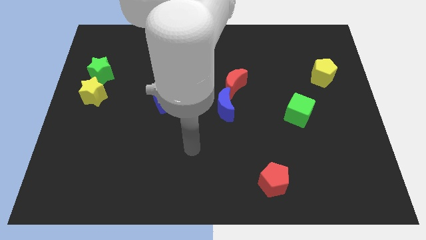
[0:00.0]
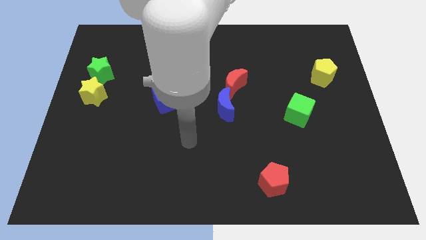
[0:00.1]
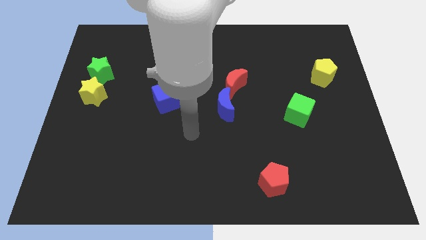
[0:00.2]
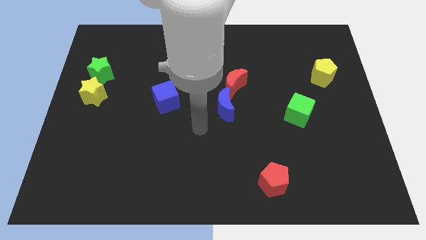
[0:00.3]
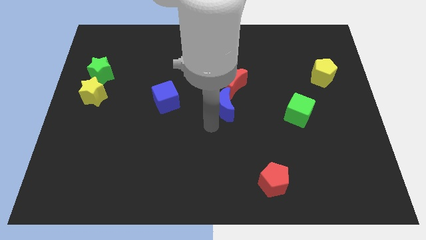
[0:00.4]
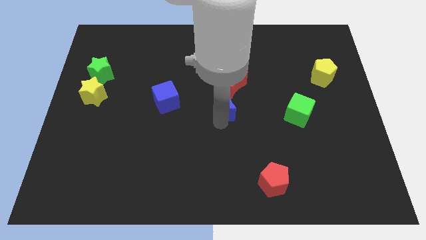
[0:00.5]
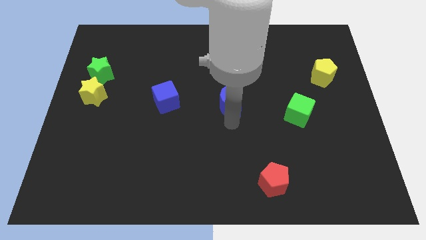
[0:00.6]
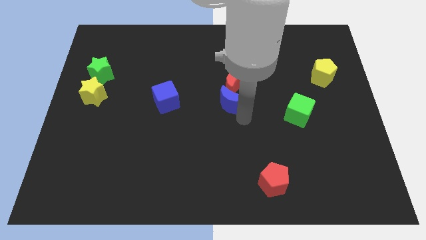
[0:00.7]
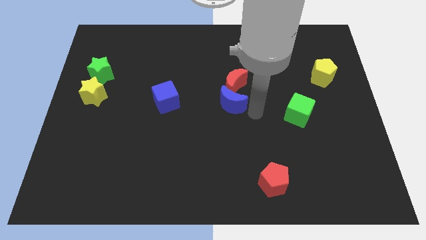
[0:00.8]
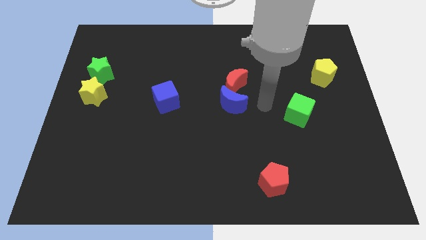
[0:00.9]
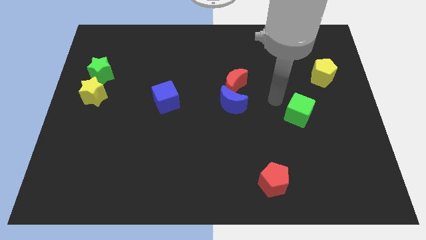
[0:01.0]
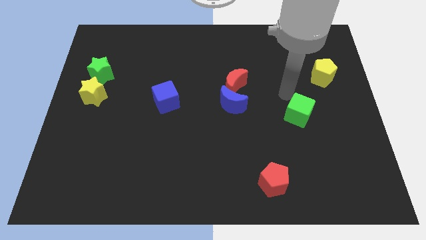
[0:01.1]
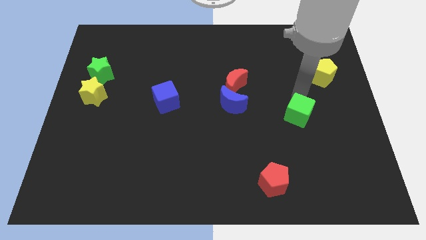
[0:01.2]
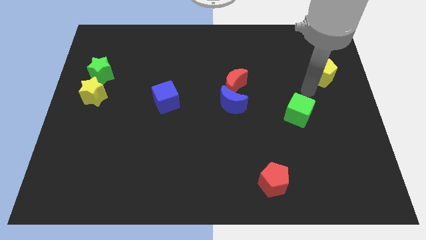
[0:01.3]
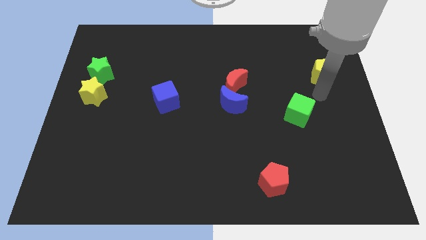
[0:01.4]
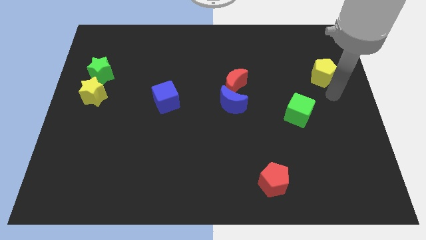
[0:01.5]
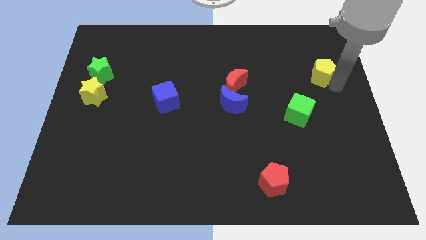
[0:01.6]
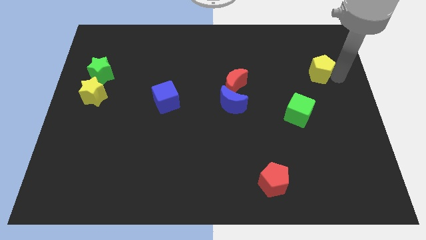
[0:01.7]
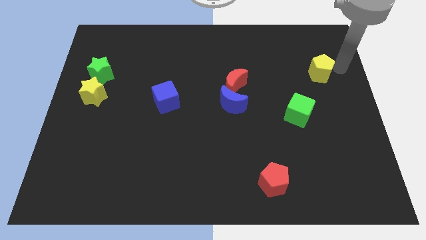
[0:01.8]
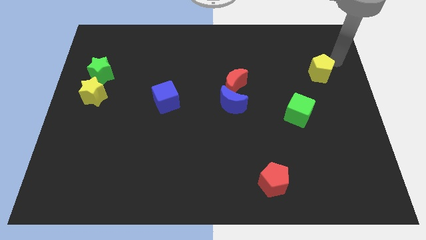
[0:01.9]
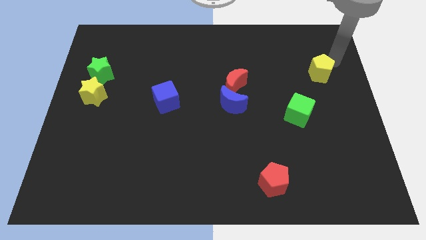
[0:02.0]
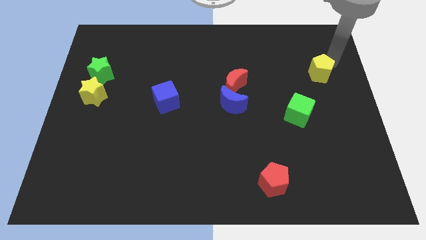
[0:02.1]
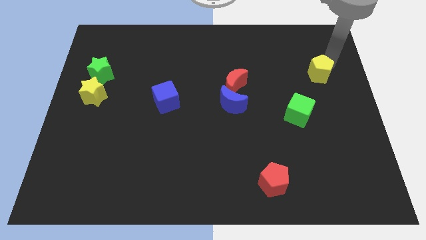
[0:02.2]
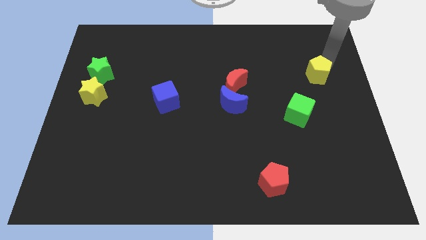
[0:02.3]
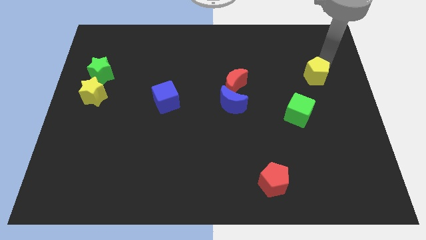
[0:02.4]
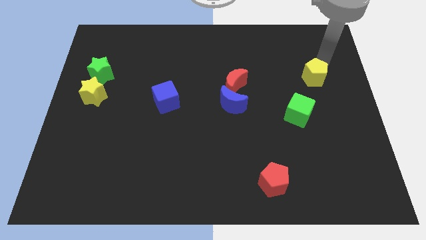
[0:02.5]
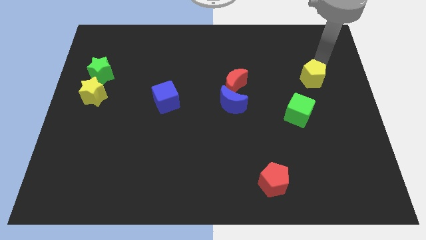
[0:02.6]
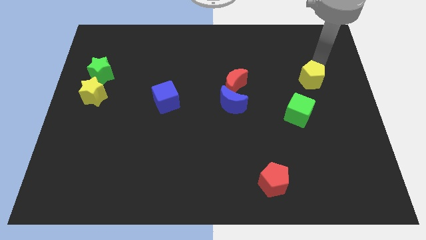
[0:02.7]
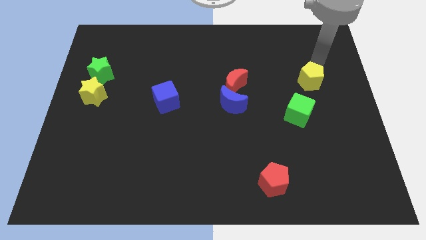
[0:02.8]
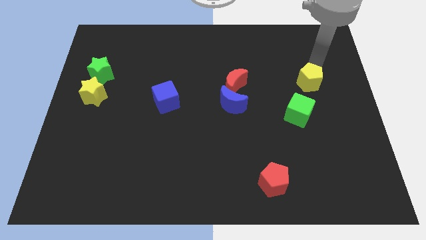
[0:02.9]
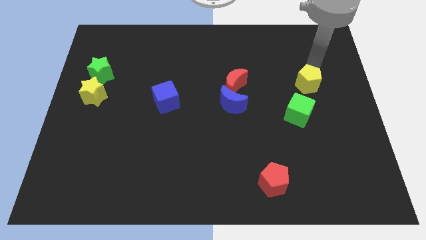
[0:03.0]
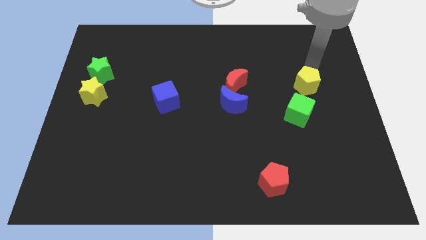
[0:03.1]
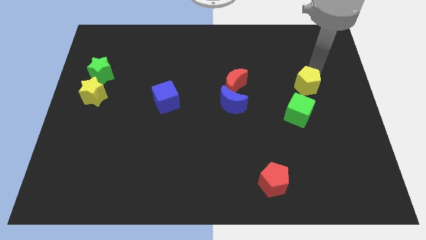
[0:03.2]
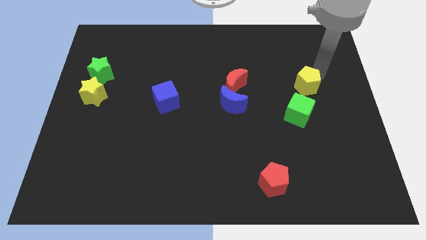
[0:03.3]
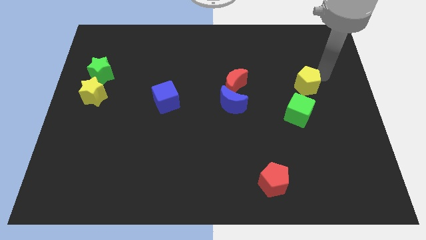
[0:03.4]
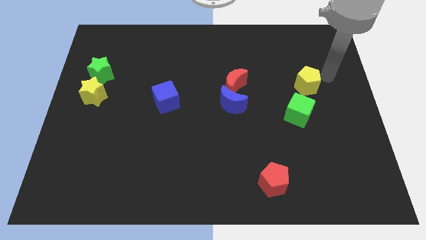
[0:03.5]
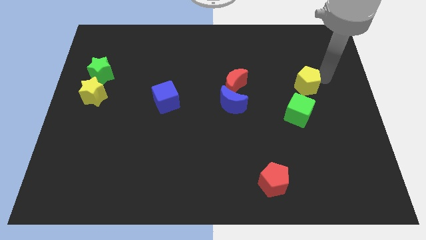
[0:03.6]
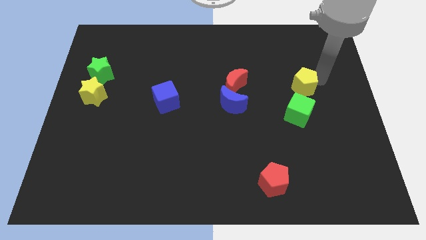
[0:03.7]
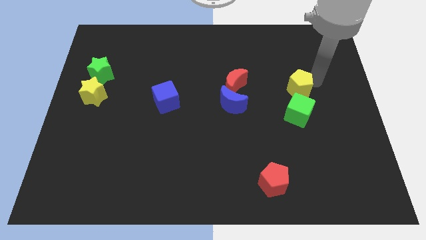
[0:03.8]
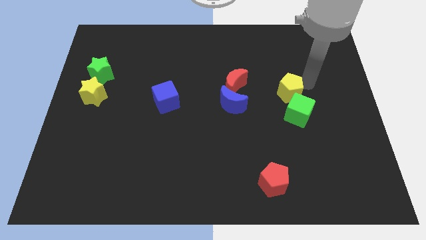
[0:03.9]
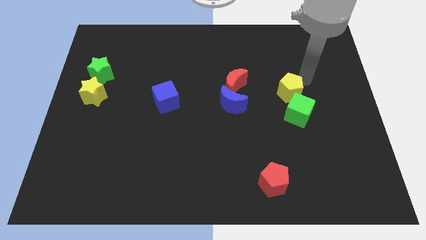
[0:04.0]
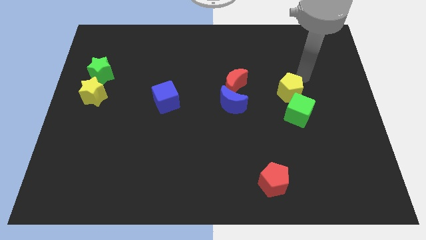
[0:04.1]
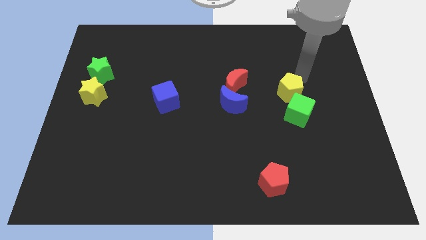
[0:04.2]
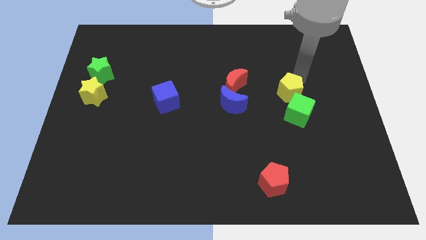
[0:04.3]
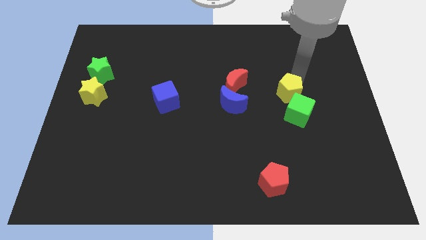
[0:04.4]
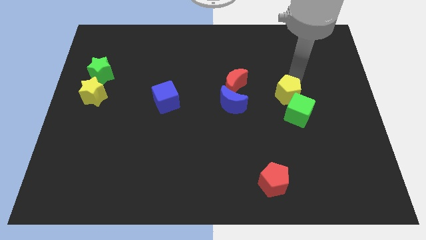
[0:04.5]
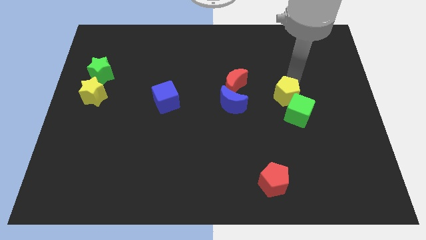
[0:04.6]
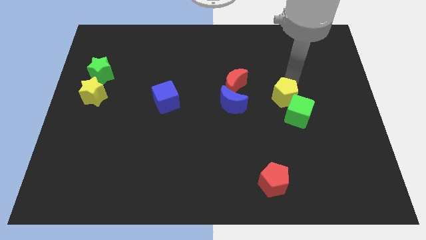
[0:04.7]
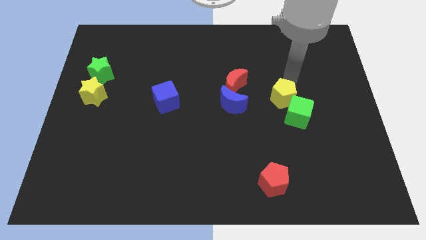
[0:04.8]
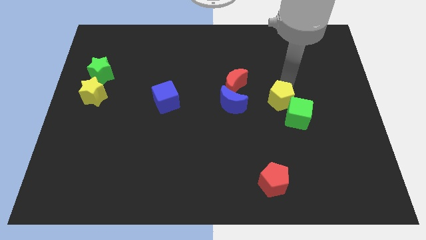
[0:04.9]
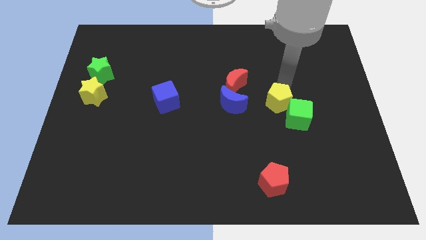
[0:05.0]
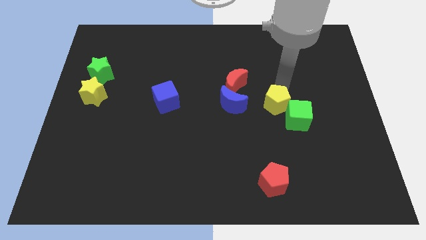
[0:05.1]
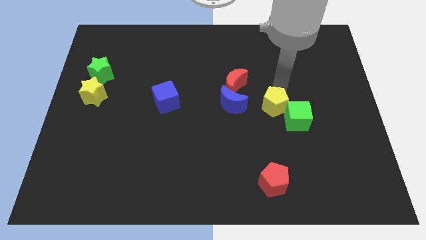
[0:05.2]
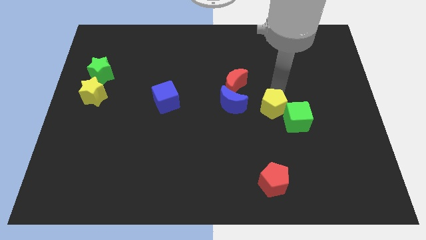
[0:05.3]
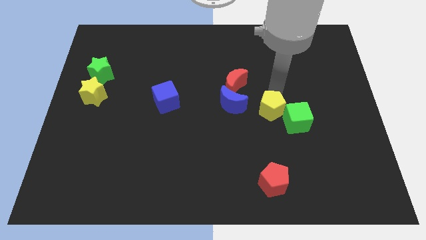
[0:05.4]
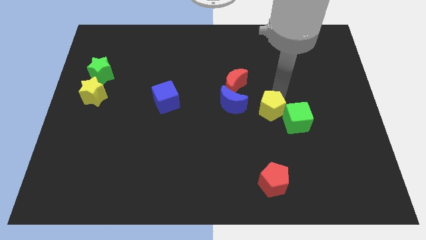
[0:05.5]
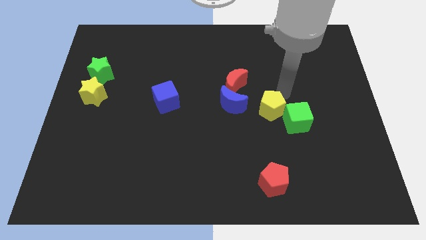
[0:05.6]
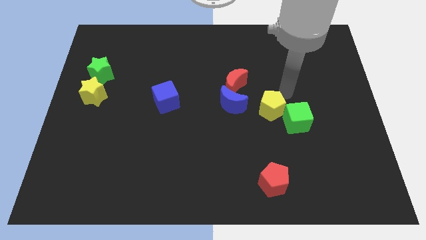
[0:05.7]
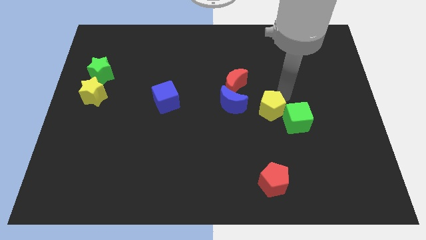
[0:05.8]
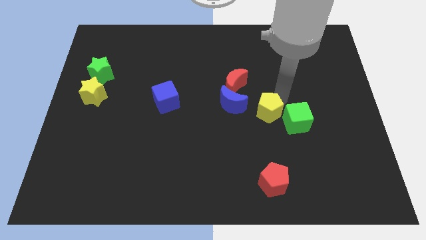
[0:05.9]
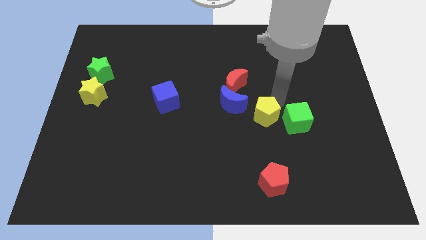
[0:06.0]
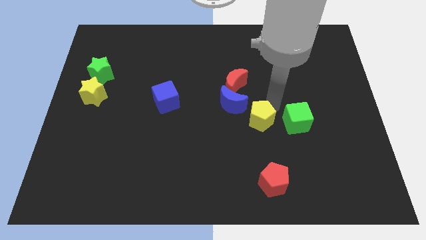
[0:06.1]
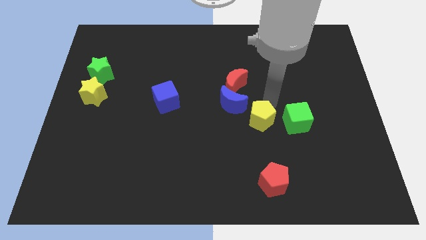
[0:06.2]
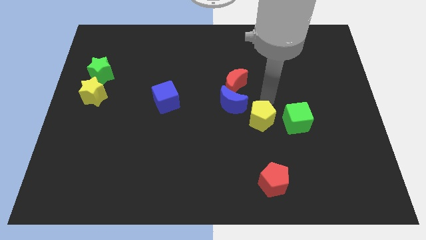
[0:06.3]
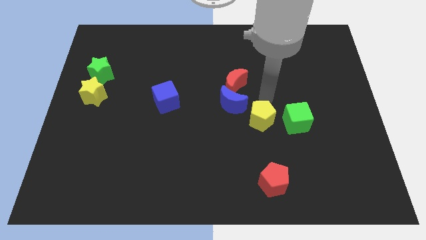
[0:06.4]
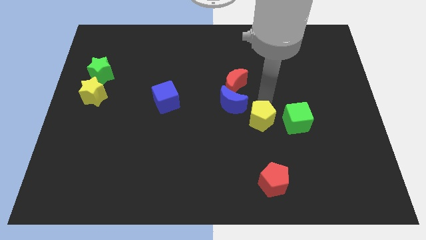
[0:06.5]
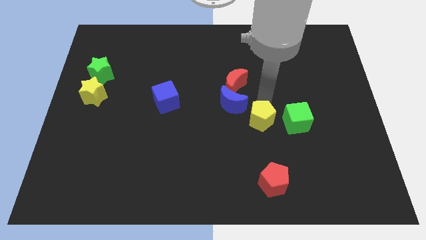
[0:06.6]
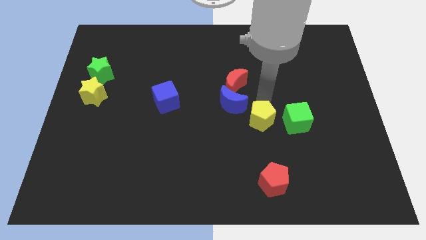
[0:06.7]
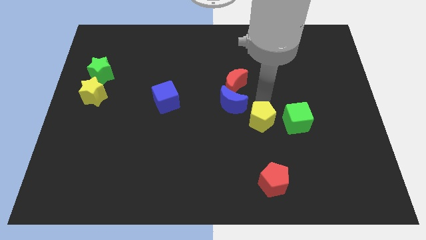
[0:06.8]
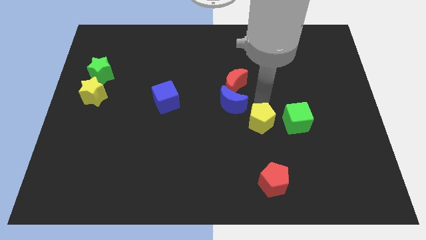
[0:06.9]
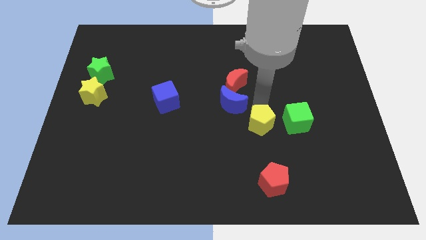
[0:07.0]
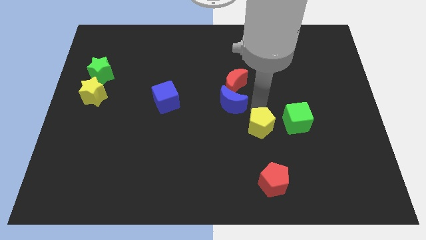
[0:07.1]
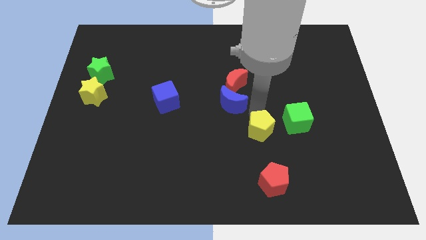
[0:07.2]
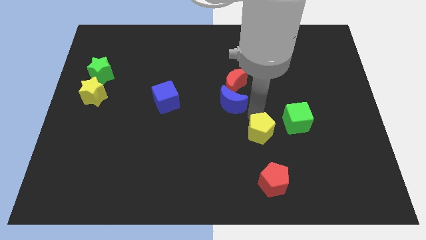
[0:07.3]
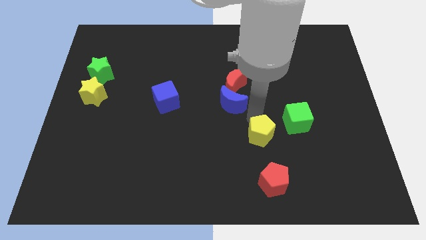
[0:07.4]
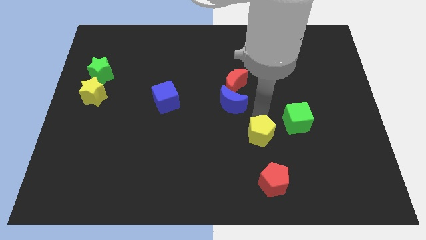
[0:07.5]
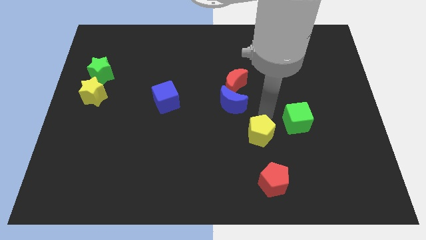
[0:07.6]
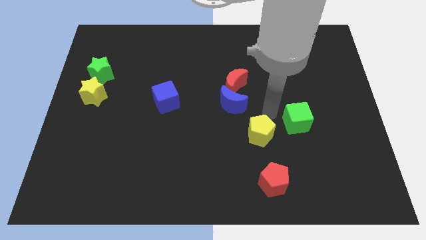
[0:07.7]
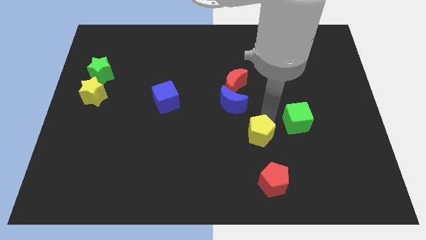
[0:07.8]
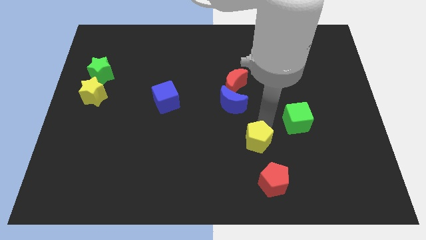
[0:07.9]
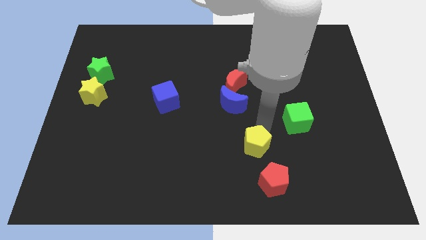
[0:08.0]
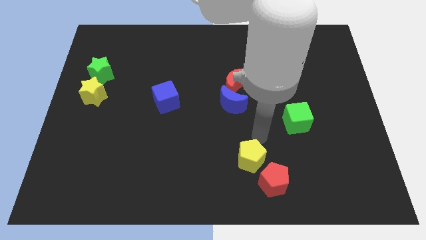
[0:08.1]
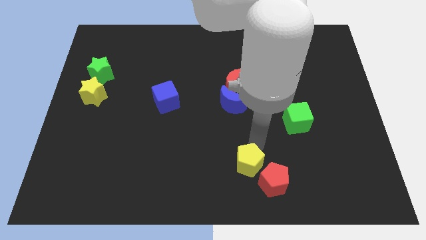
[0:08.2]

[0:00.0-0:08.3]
slide the yellow pentagon to the bottom side

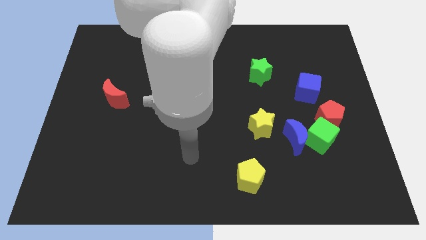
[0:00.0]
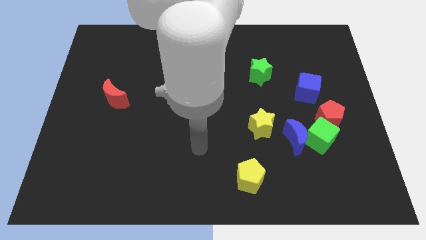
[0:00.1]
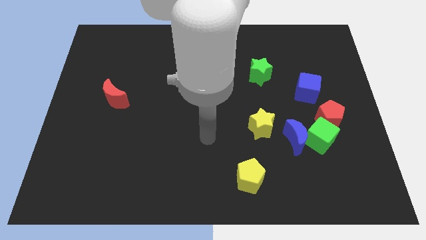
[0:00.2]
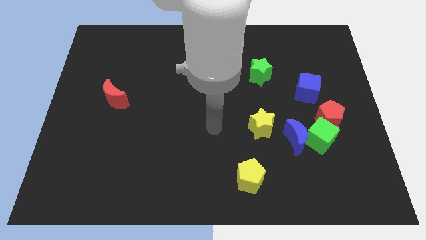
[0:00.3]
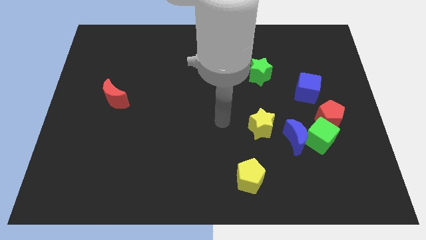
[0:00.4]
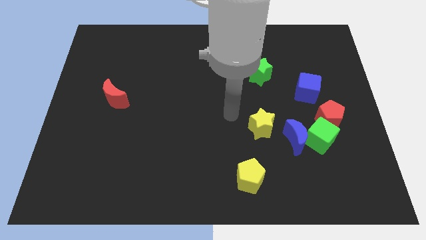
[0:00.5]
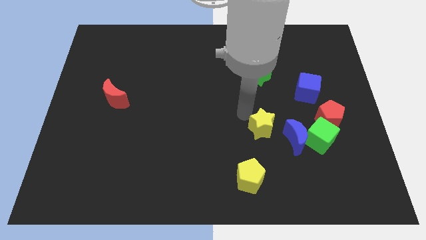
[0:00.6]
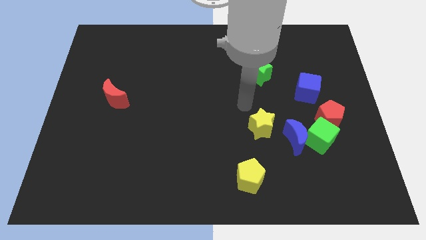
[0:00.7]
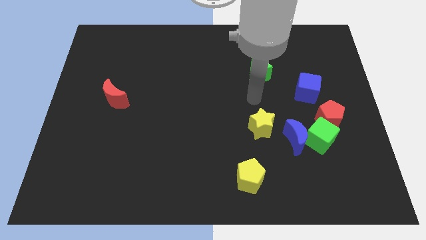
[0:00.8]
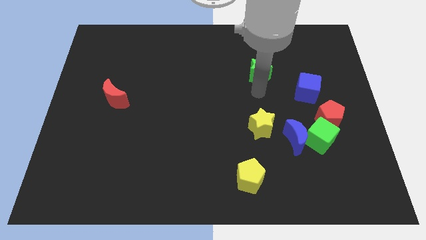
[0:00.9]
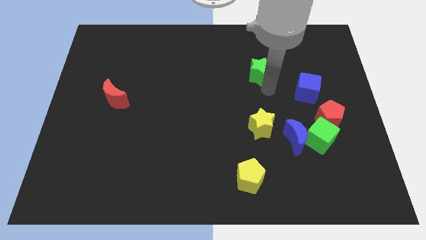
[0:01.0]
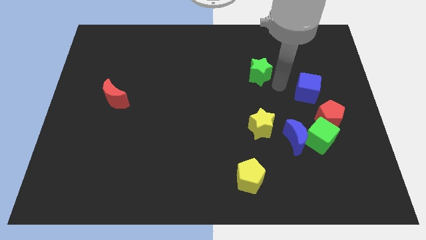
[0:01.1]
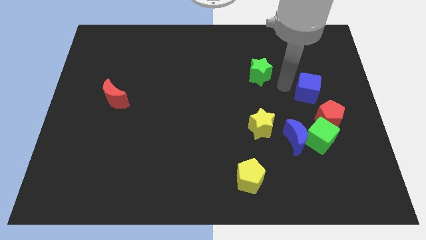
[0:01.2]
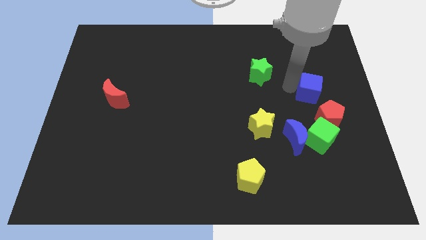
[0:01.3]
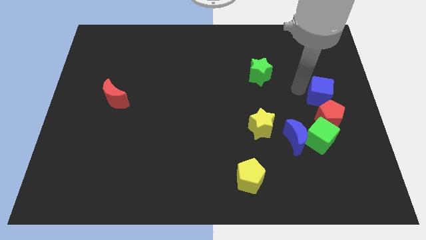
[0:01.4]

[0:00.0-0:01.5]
push the blue cube to the right side
